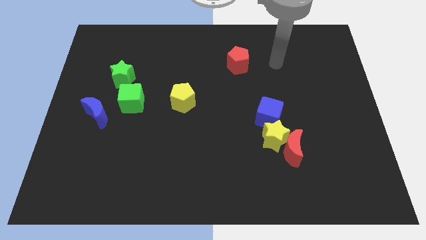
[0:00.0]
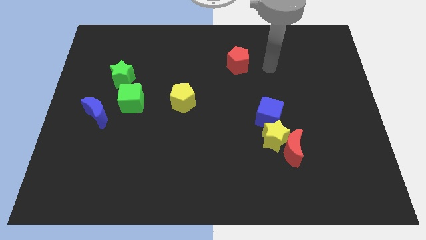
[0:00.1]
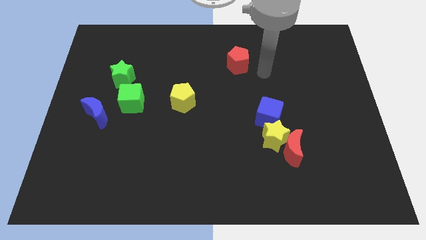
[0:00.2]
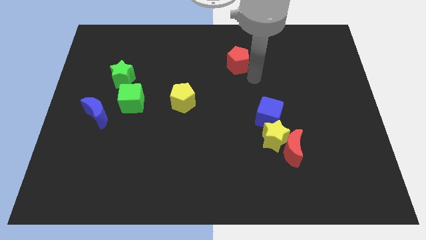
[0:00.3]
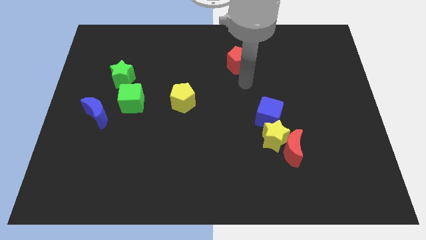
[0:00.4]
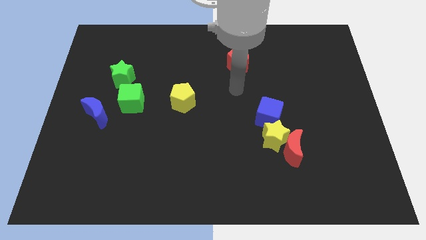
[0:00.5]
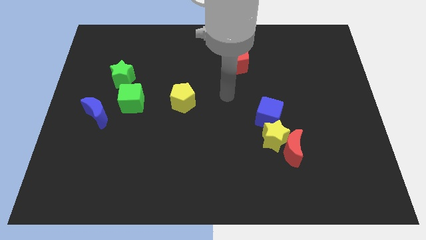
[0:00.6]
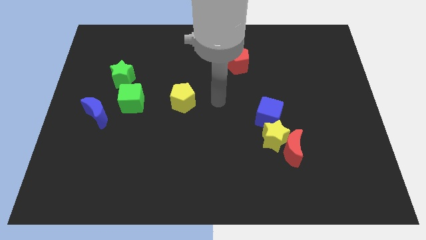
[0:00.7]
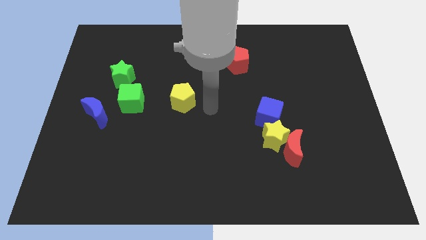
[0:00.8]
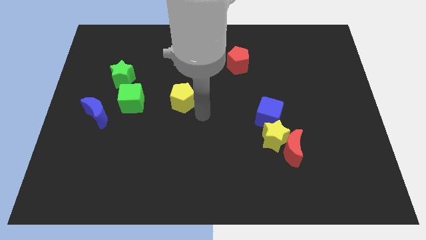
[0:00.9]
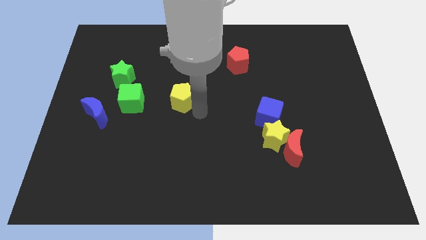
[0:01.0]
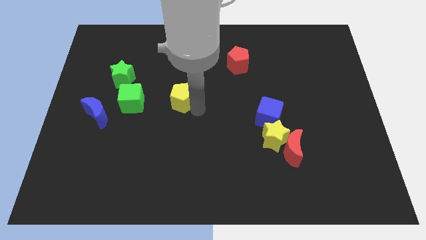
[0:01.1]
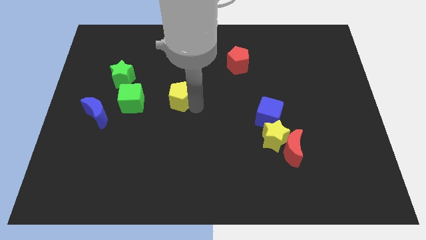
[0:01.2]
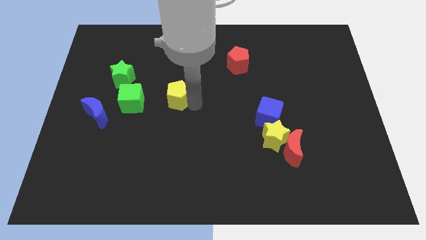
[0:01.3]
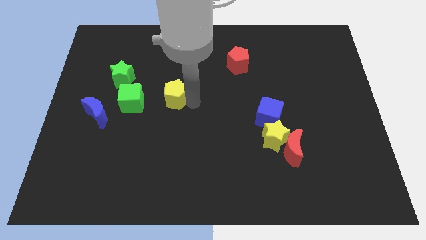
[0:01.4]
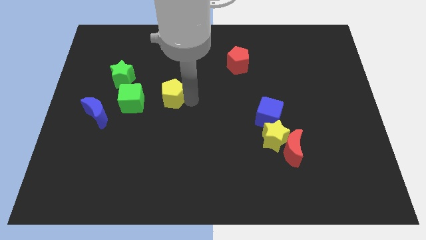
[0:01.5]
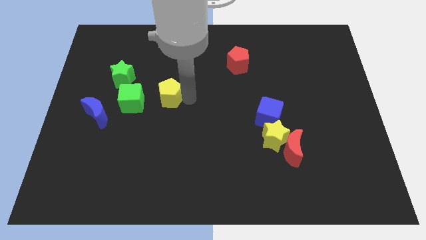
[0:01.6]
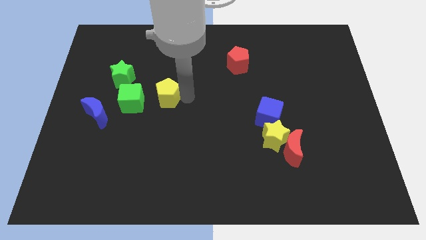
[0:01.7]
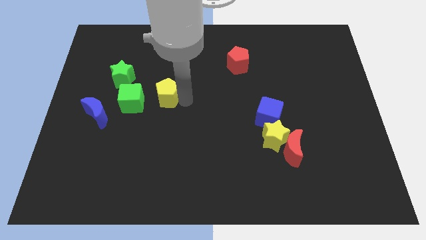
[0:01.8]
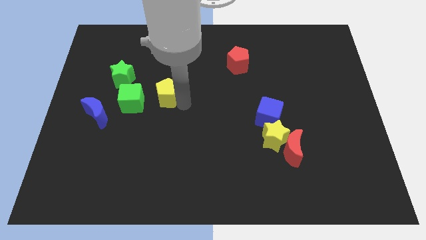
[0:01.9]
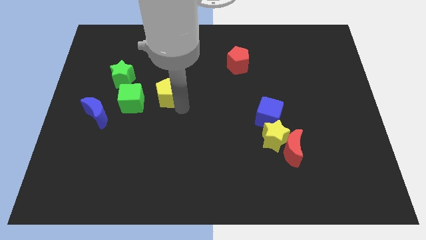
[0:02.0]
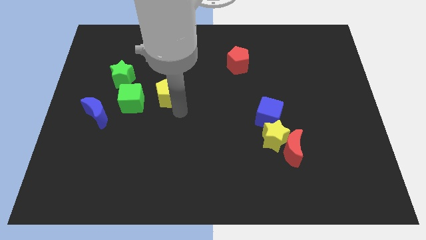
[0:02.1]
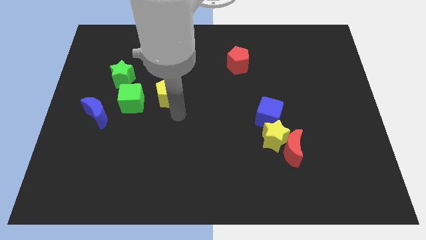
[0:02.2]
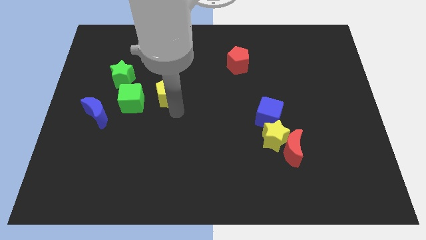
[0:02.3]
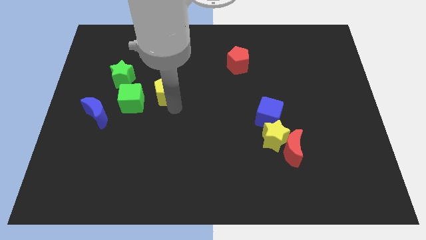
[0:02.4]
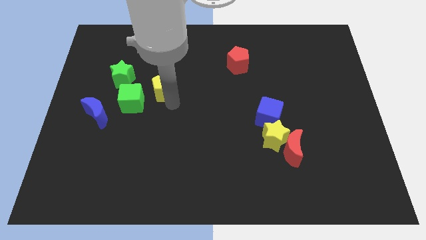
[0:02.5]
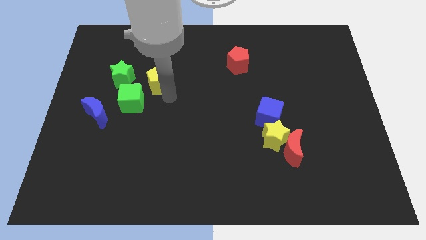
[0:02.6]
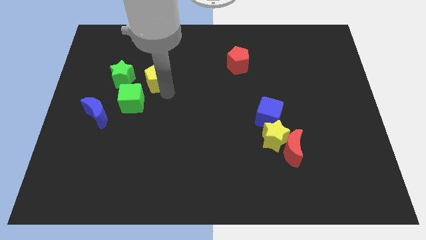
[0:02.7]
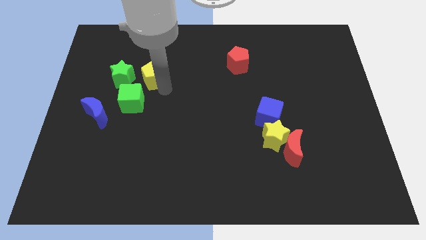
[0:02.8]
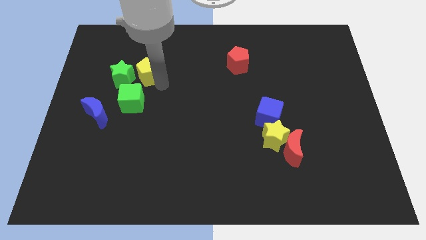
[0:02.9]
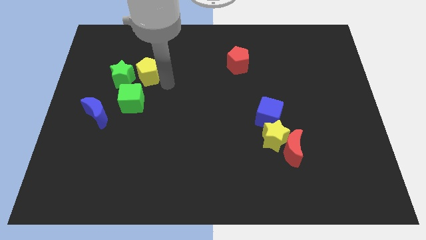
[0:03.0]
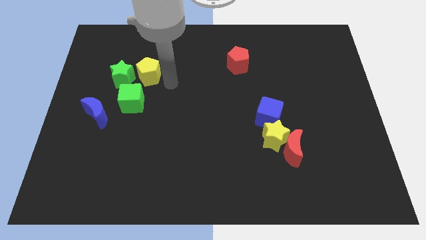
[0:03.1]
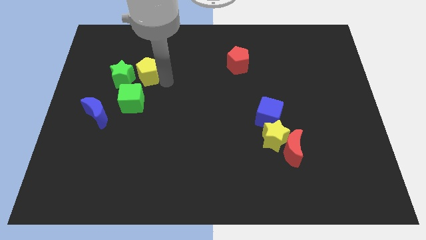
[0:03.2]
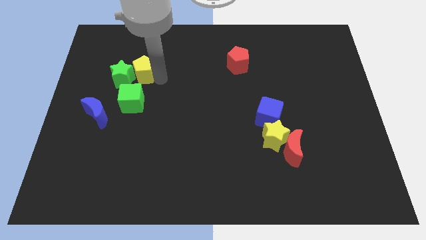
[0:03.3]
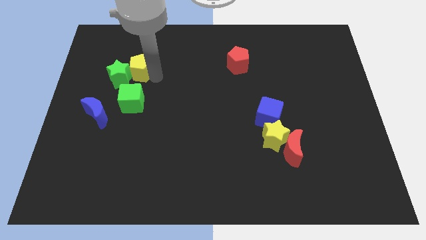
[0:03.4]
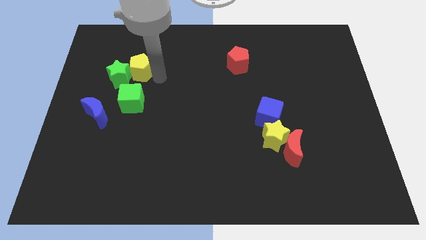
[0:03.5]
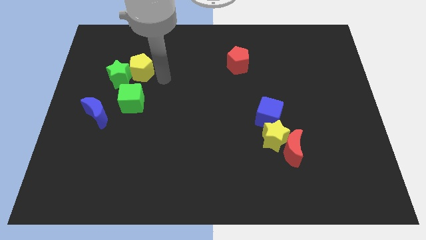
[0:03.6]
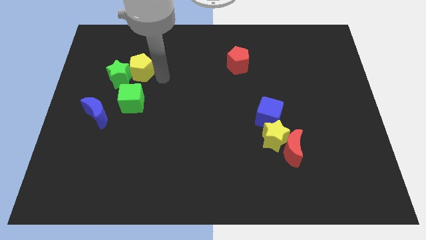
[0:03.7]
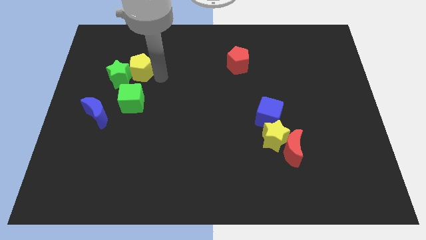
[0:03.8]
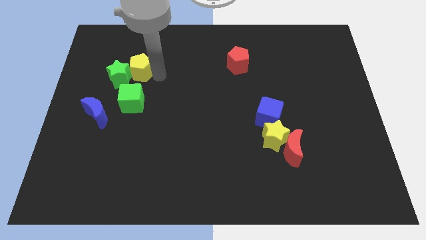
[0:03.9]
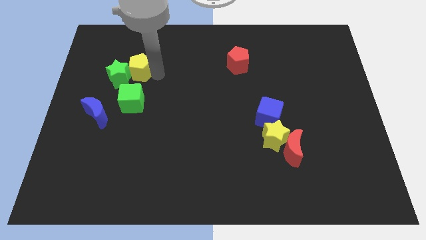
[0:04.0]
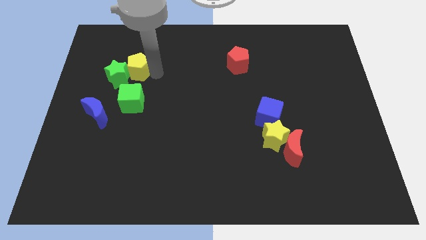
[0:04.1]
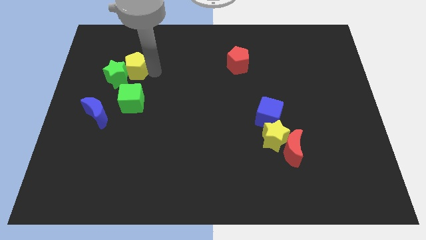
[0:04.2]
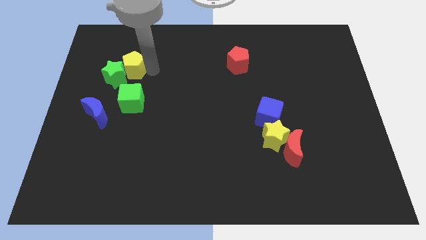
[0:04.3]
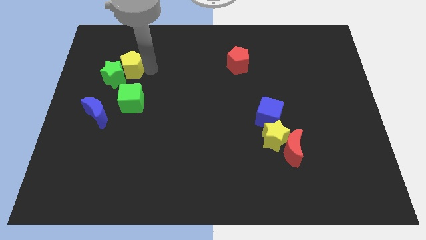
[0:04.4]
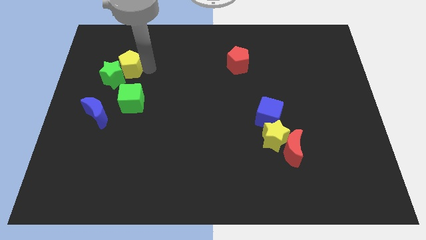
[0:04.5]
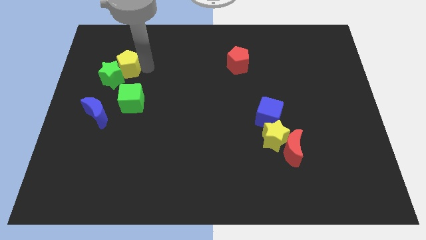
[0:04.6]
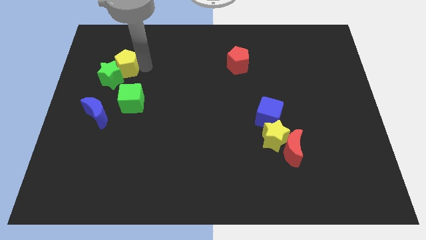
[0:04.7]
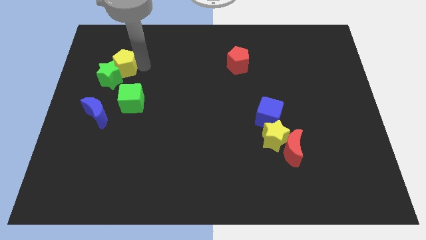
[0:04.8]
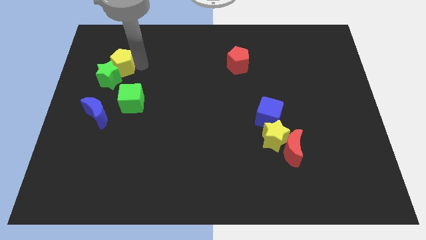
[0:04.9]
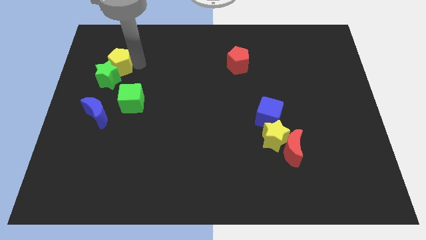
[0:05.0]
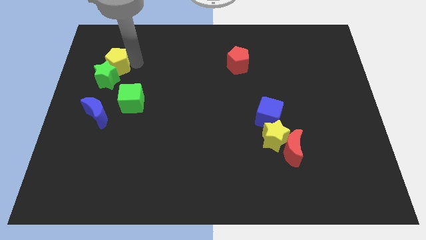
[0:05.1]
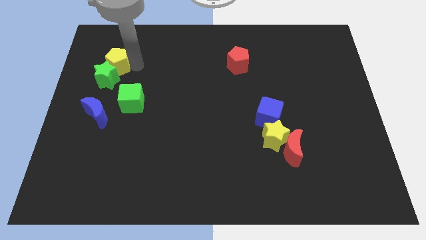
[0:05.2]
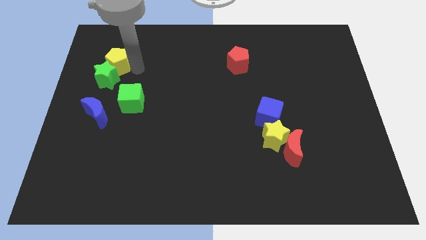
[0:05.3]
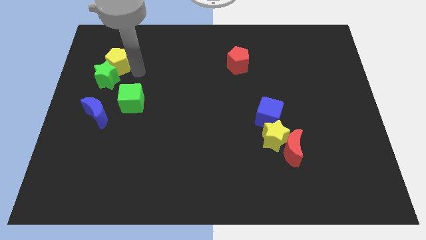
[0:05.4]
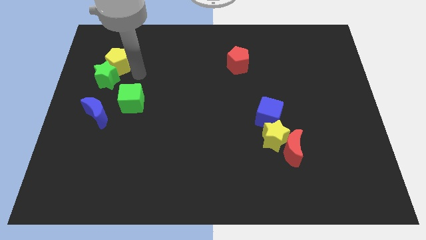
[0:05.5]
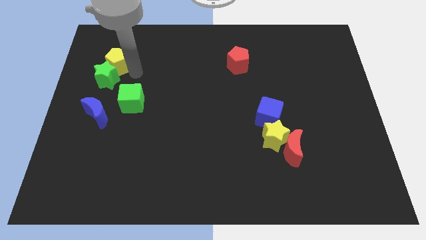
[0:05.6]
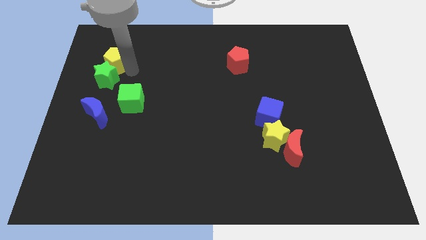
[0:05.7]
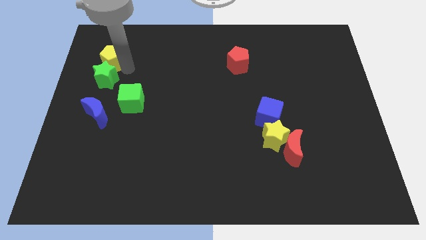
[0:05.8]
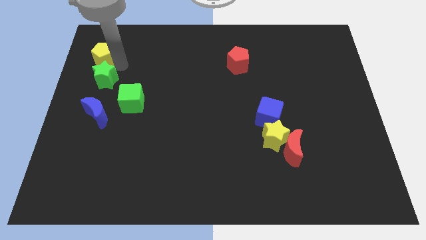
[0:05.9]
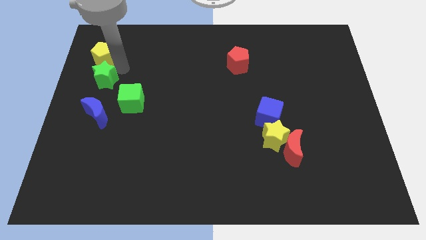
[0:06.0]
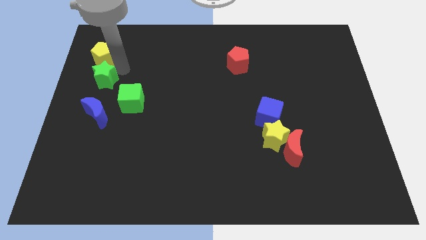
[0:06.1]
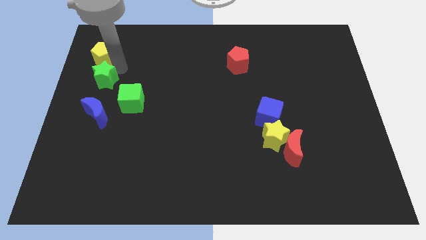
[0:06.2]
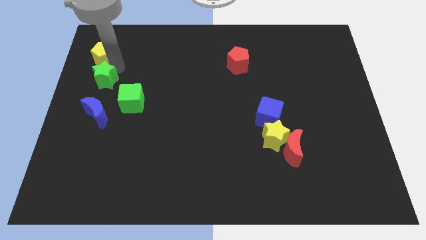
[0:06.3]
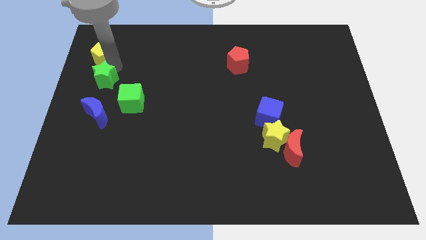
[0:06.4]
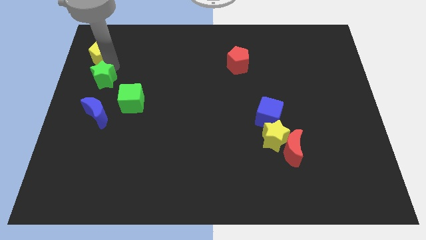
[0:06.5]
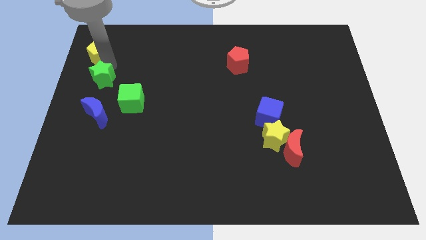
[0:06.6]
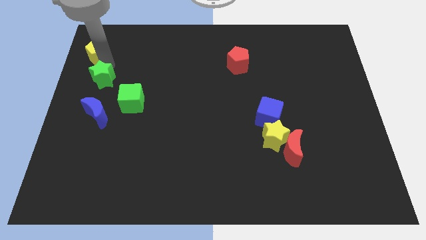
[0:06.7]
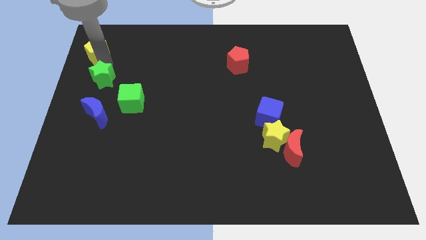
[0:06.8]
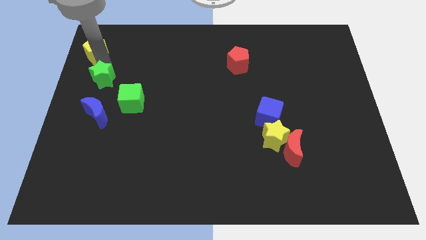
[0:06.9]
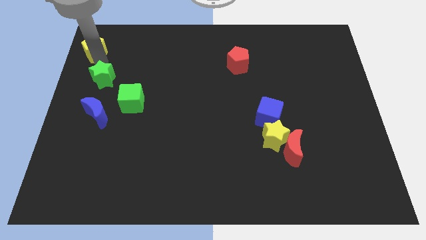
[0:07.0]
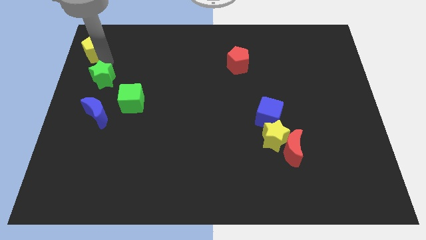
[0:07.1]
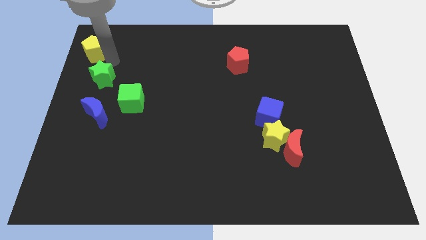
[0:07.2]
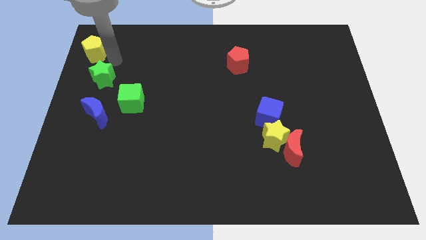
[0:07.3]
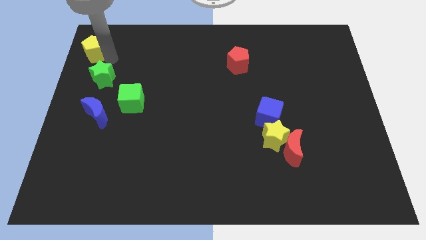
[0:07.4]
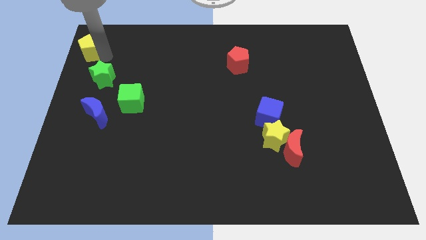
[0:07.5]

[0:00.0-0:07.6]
push the yellow pentagon to the upper left corner
